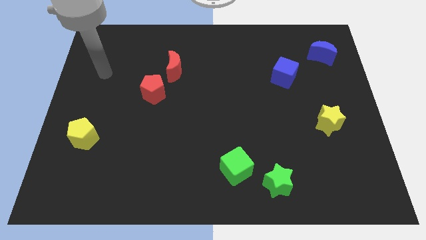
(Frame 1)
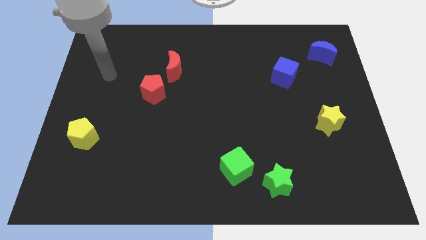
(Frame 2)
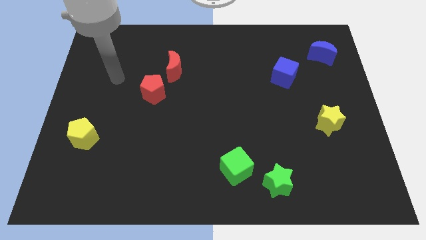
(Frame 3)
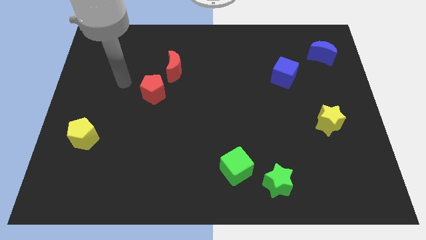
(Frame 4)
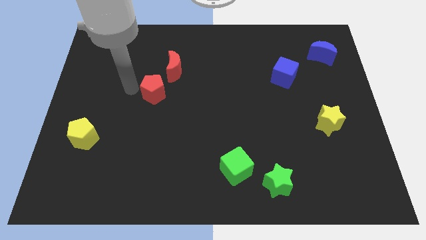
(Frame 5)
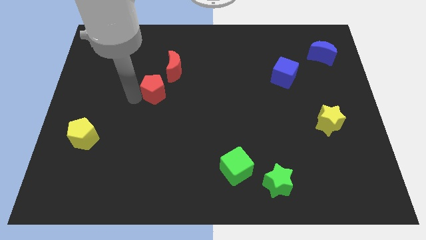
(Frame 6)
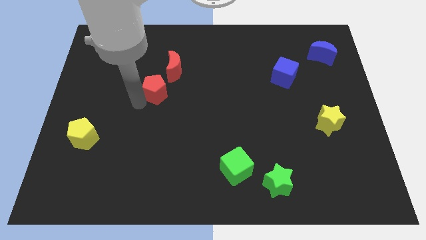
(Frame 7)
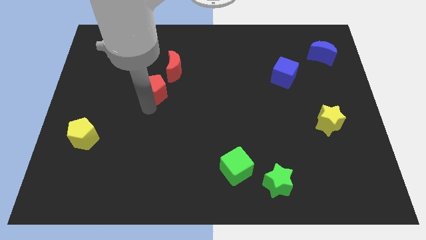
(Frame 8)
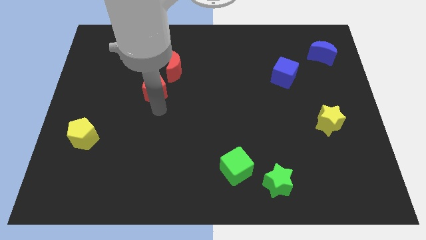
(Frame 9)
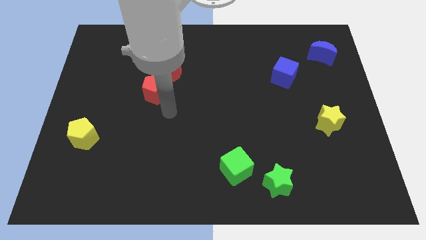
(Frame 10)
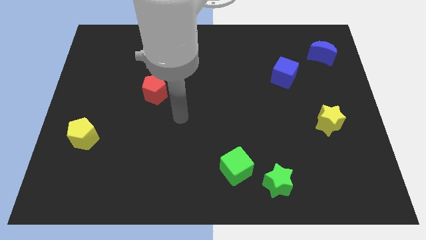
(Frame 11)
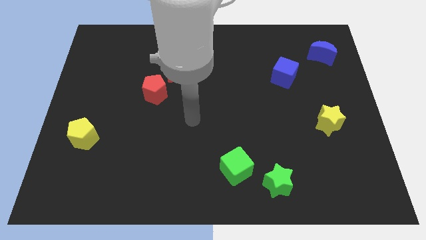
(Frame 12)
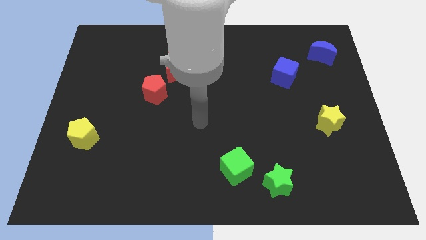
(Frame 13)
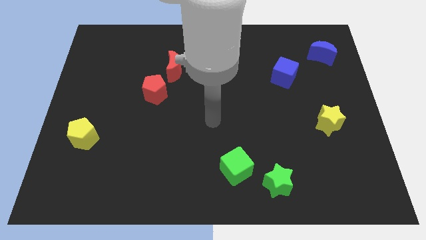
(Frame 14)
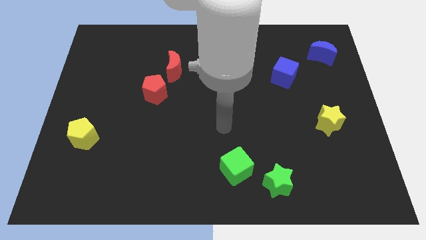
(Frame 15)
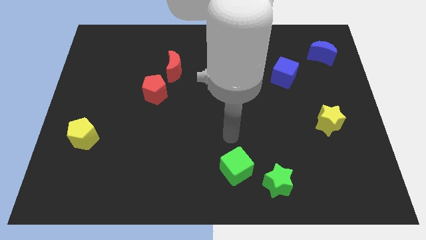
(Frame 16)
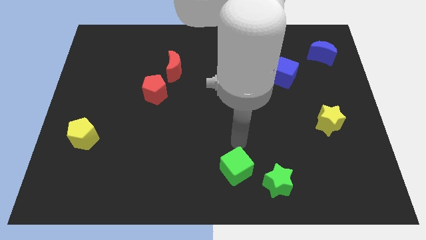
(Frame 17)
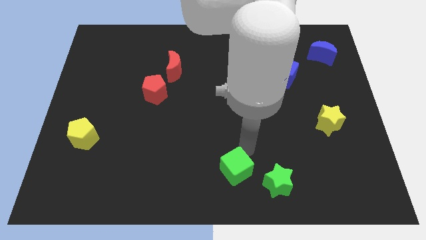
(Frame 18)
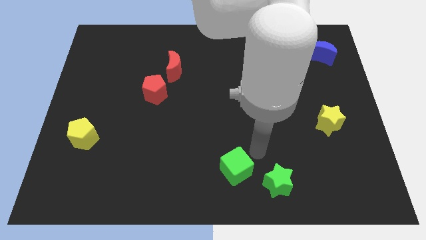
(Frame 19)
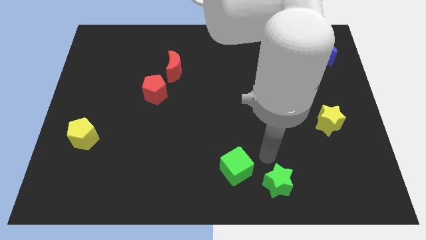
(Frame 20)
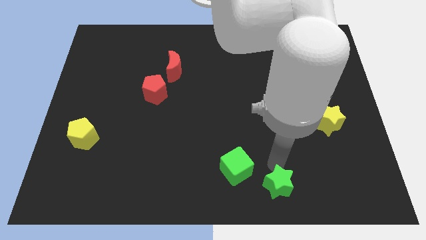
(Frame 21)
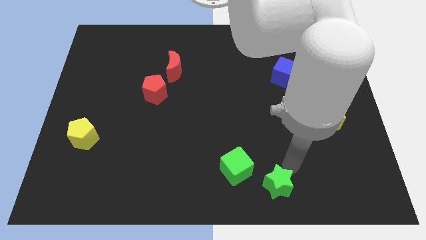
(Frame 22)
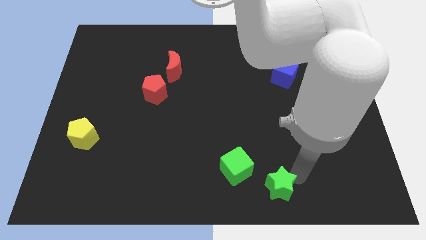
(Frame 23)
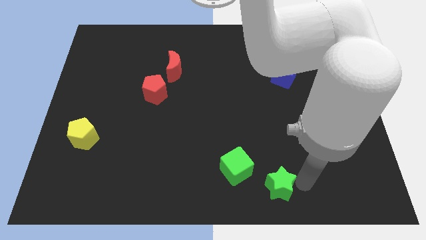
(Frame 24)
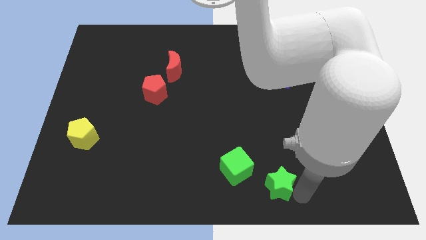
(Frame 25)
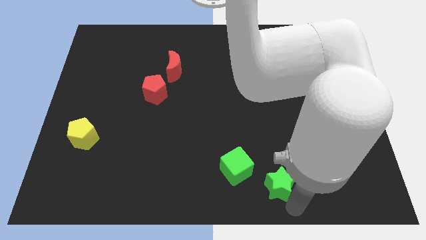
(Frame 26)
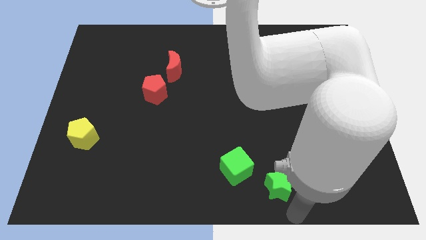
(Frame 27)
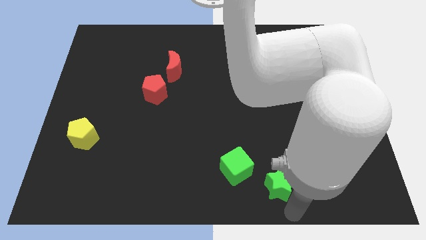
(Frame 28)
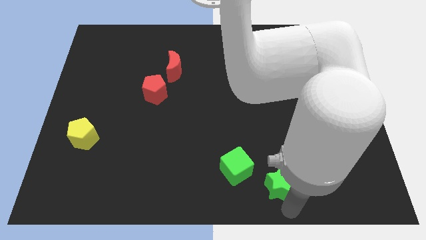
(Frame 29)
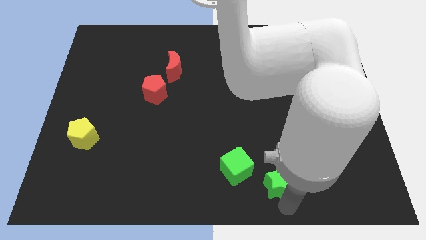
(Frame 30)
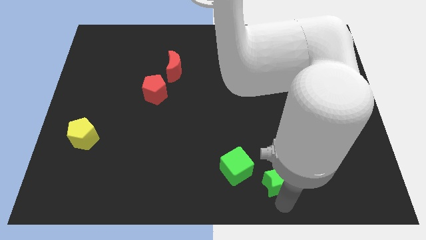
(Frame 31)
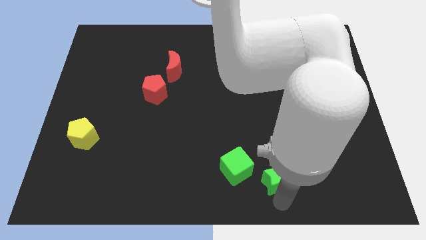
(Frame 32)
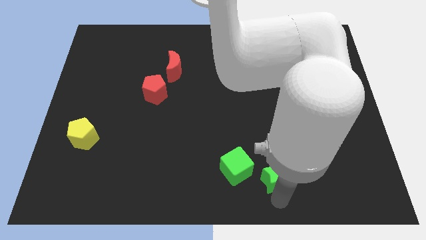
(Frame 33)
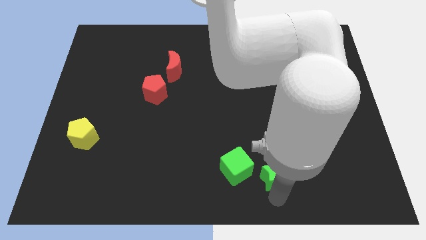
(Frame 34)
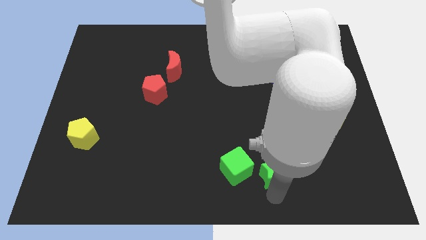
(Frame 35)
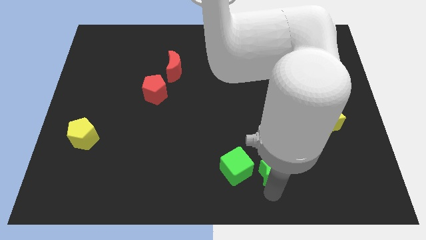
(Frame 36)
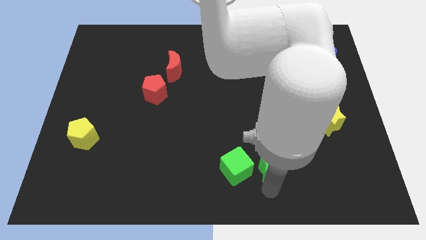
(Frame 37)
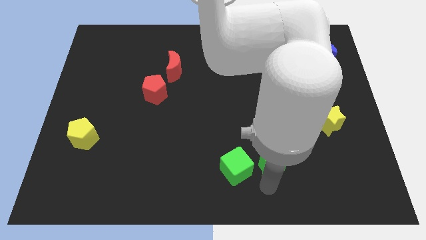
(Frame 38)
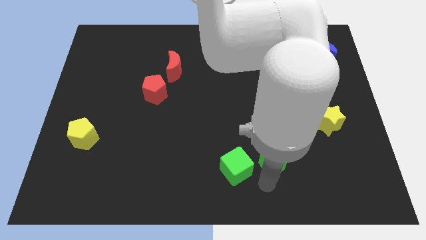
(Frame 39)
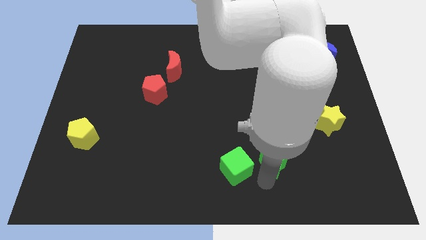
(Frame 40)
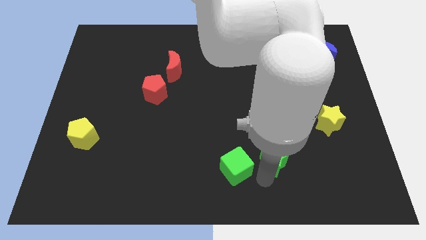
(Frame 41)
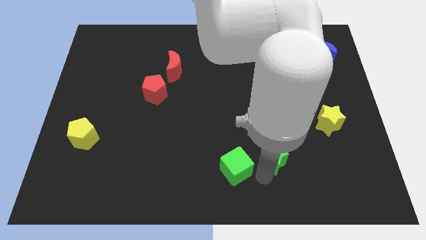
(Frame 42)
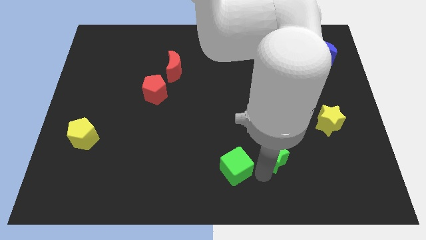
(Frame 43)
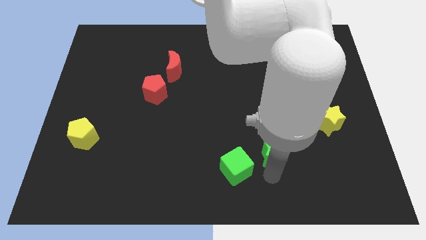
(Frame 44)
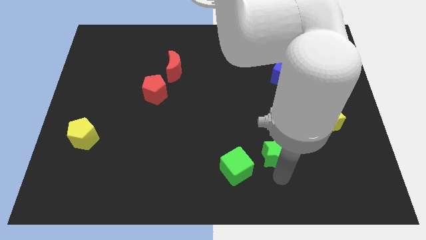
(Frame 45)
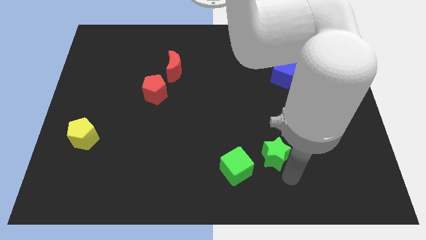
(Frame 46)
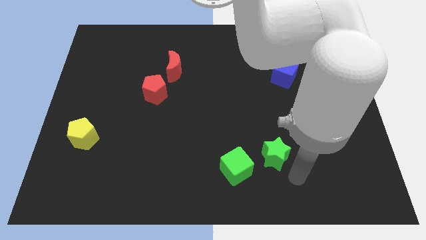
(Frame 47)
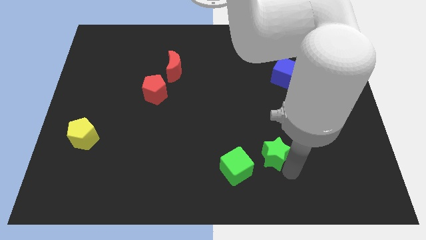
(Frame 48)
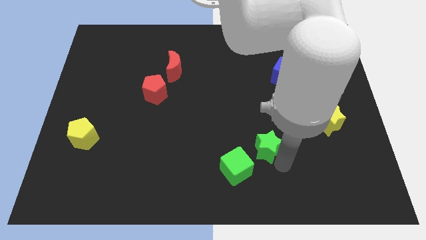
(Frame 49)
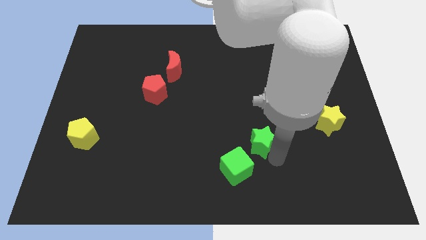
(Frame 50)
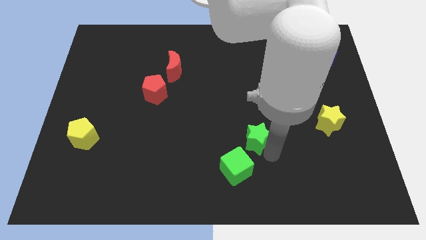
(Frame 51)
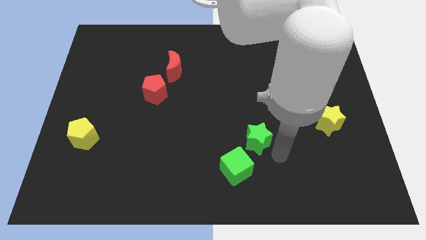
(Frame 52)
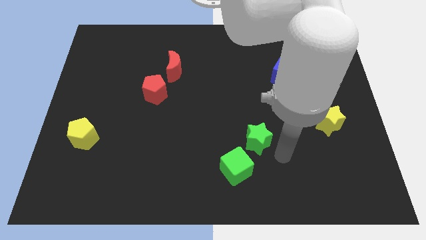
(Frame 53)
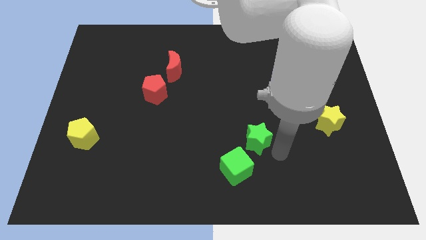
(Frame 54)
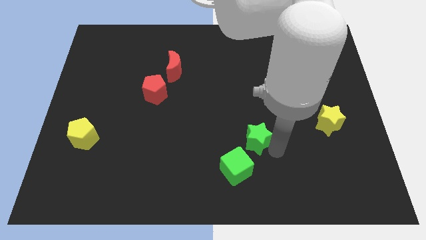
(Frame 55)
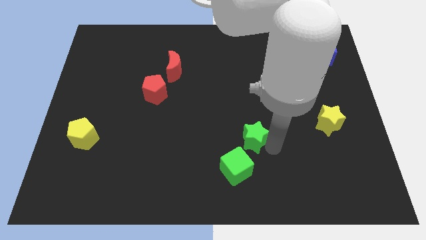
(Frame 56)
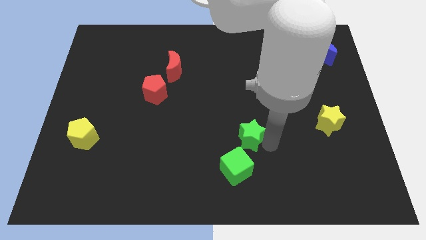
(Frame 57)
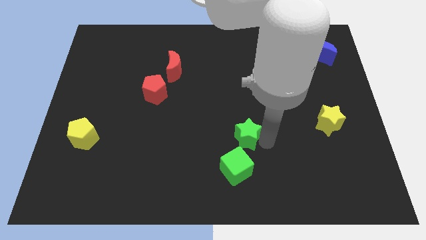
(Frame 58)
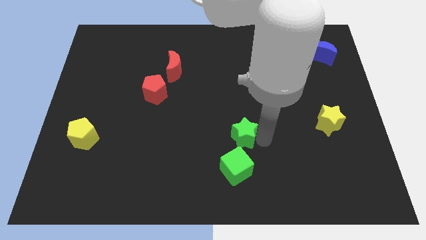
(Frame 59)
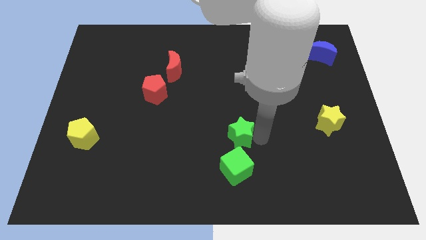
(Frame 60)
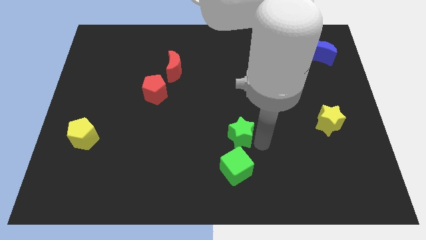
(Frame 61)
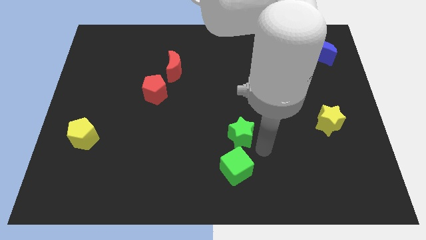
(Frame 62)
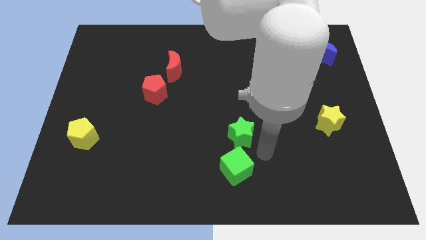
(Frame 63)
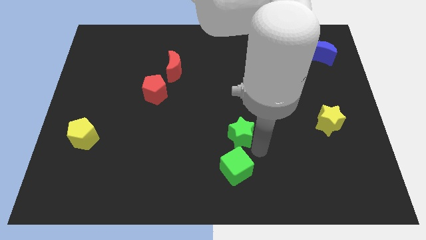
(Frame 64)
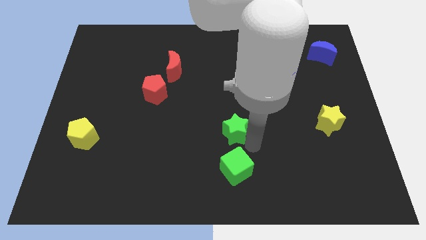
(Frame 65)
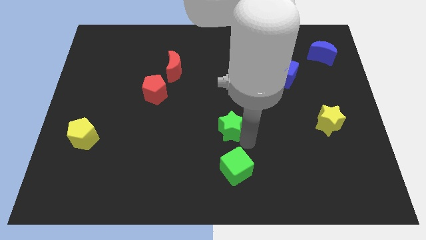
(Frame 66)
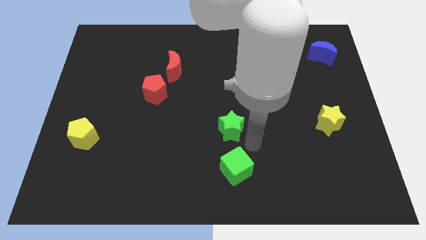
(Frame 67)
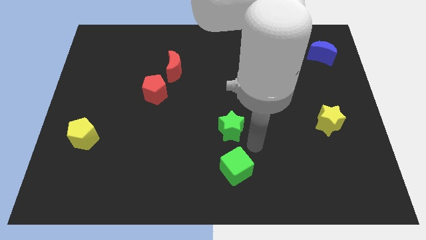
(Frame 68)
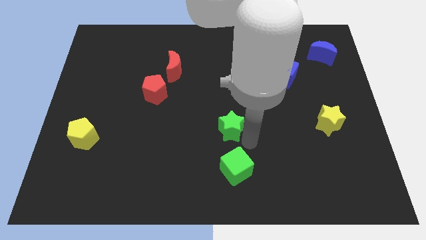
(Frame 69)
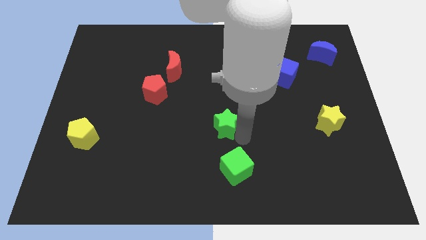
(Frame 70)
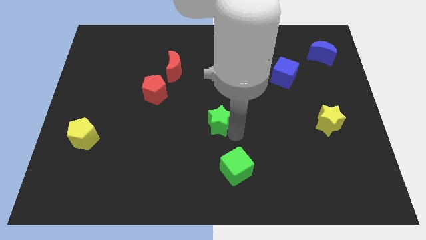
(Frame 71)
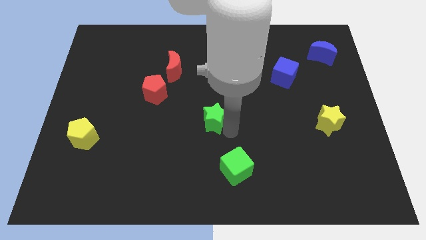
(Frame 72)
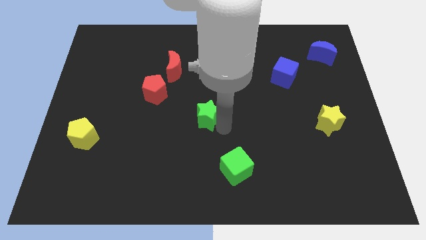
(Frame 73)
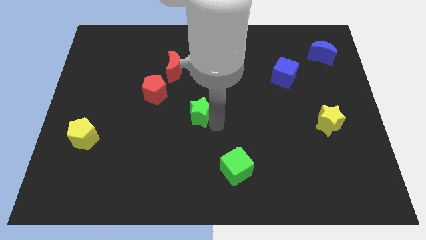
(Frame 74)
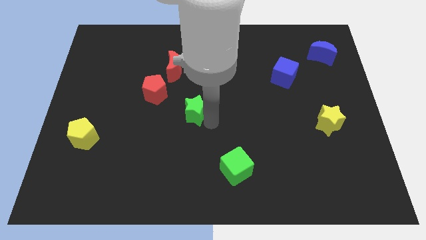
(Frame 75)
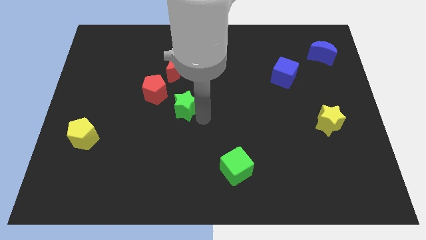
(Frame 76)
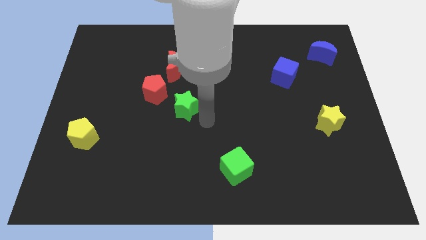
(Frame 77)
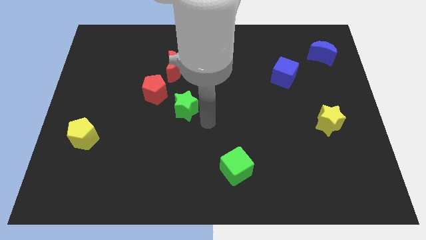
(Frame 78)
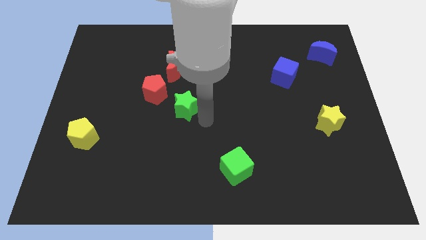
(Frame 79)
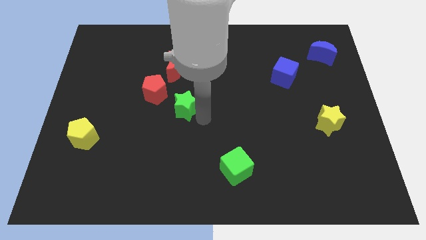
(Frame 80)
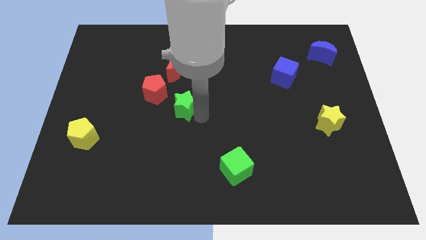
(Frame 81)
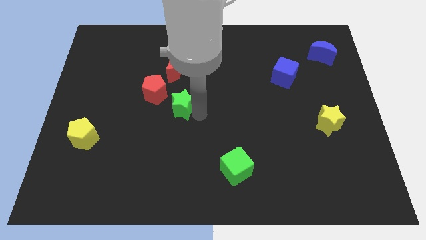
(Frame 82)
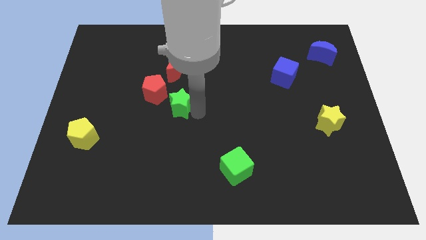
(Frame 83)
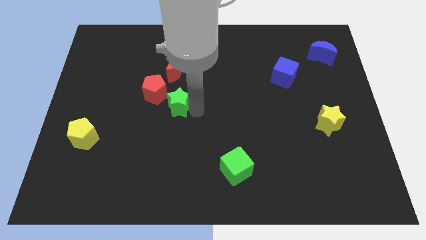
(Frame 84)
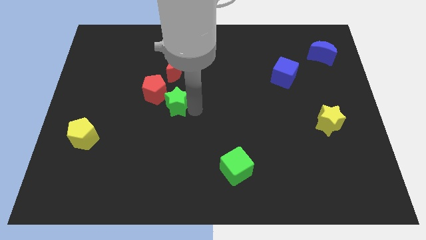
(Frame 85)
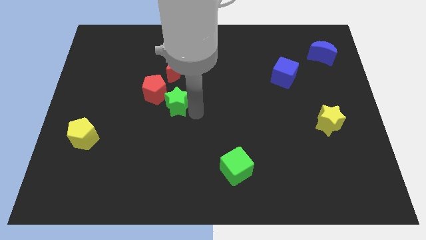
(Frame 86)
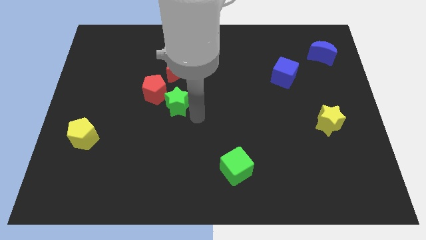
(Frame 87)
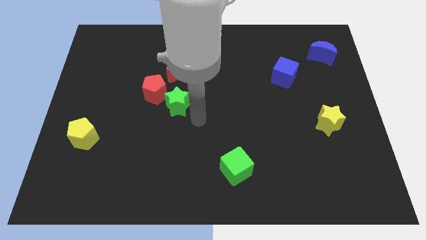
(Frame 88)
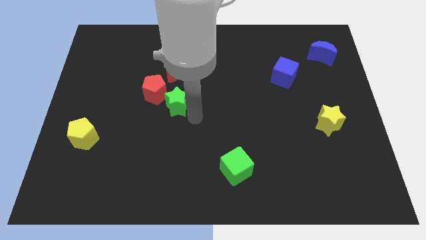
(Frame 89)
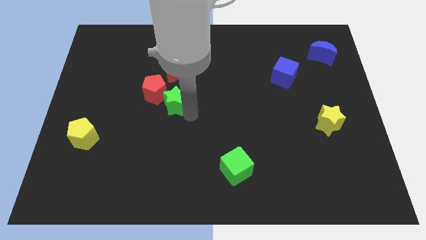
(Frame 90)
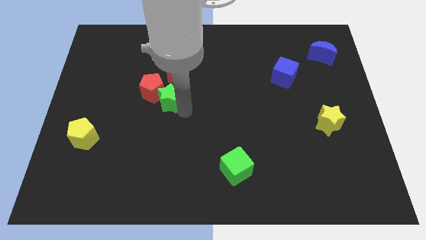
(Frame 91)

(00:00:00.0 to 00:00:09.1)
put the green star towards the red pentagon
